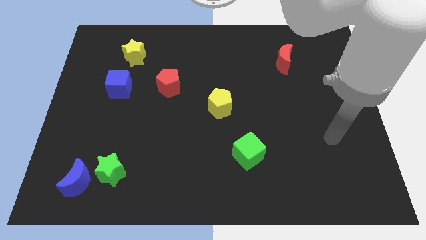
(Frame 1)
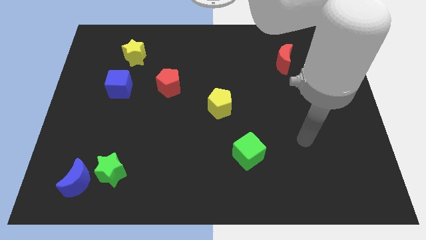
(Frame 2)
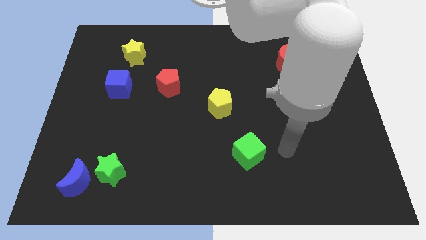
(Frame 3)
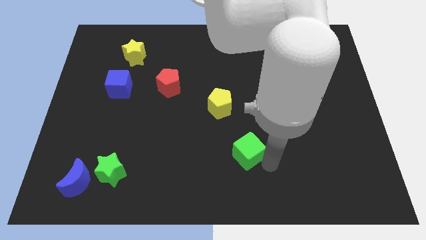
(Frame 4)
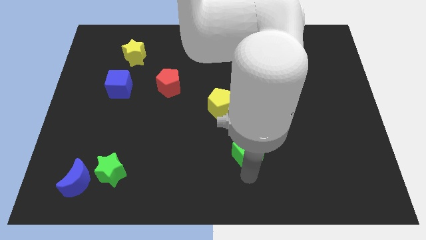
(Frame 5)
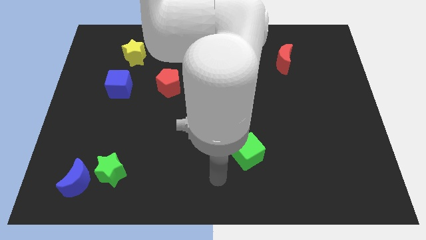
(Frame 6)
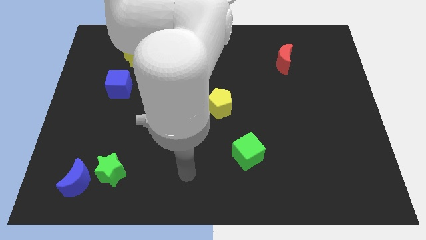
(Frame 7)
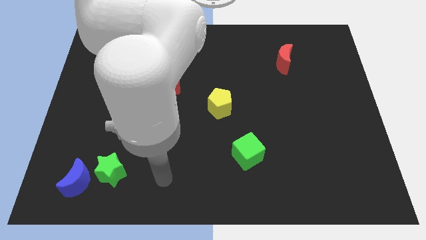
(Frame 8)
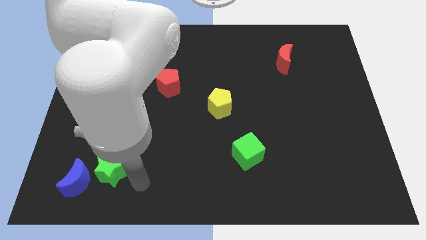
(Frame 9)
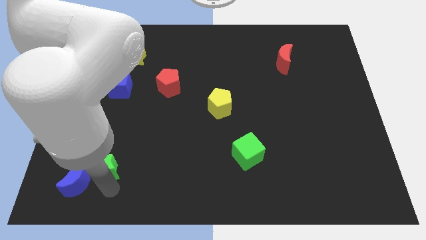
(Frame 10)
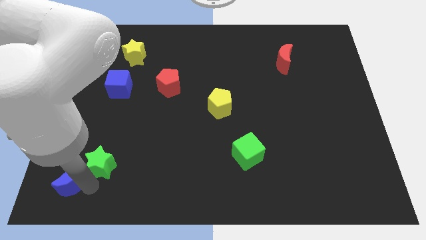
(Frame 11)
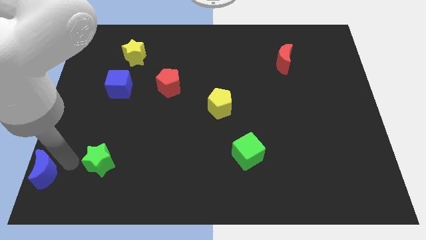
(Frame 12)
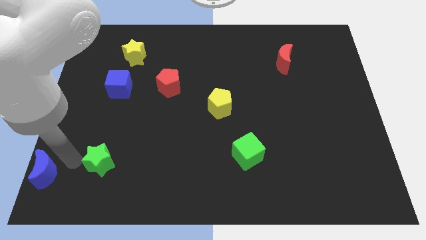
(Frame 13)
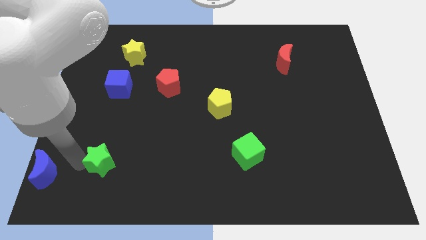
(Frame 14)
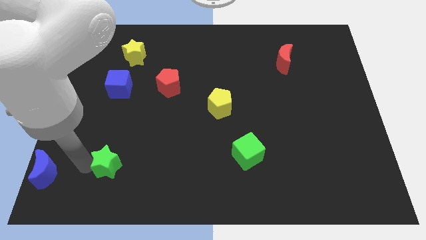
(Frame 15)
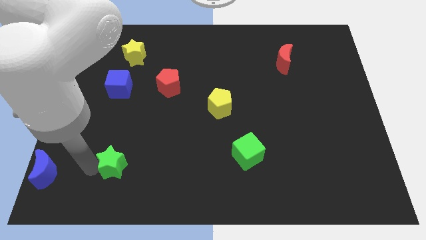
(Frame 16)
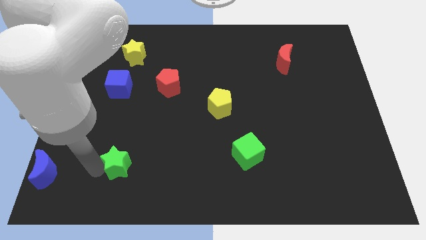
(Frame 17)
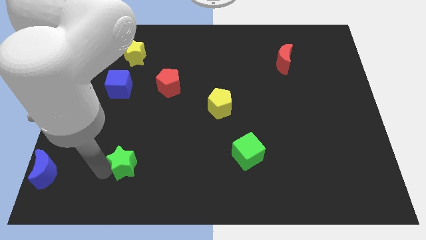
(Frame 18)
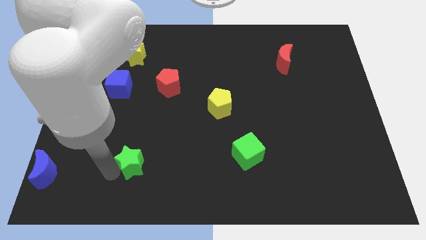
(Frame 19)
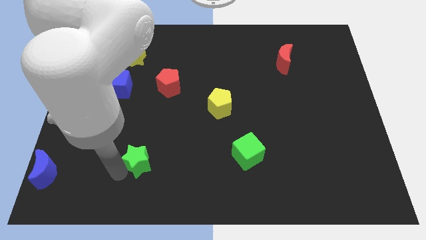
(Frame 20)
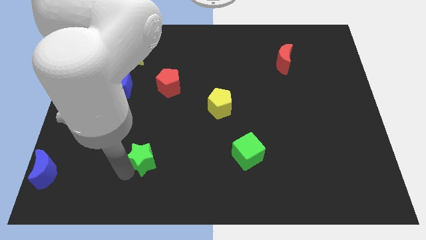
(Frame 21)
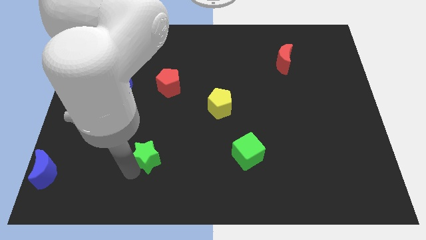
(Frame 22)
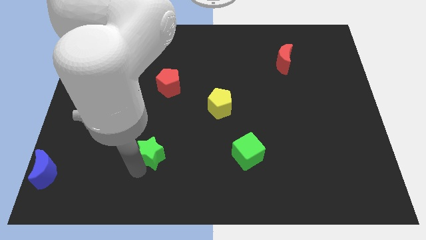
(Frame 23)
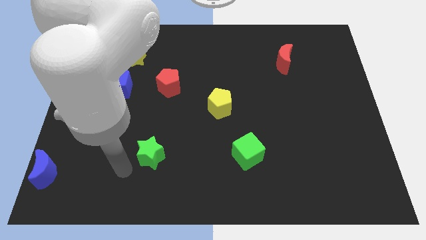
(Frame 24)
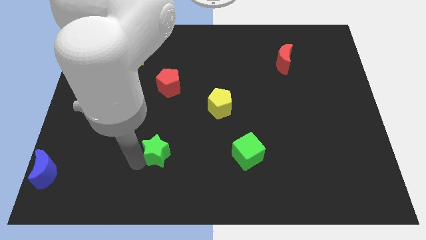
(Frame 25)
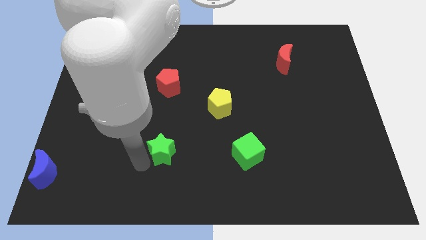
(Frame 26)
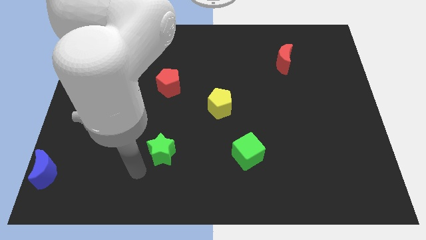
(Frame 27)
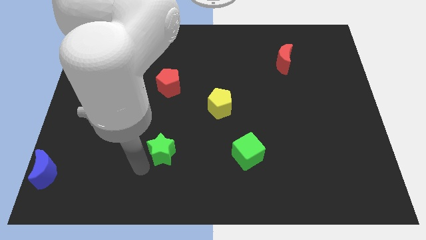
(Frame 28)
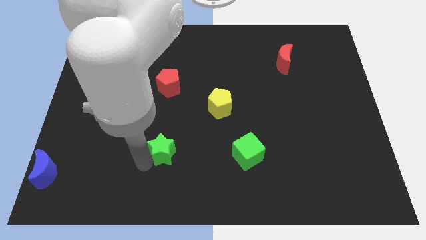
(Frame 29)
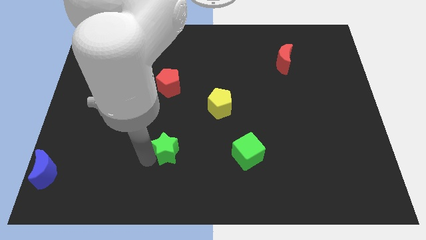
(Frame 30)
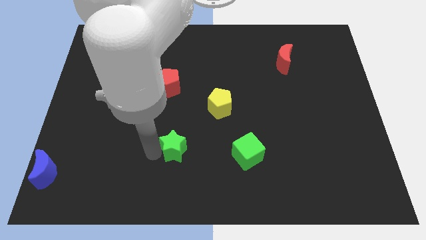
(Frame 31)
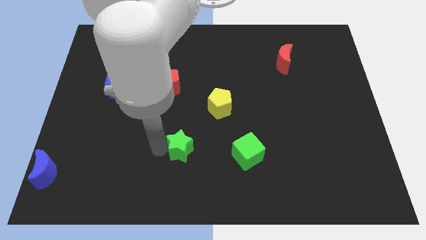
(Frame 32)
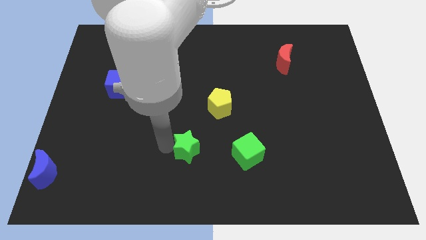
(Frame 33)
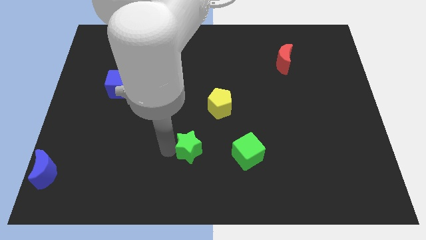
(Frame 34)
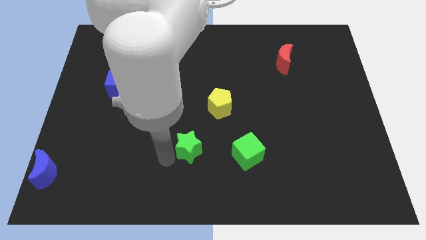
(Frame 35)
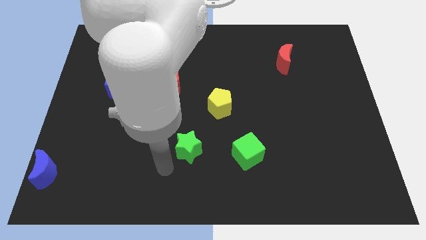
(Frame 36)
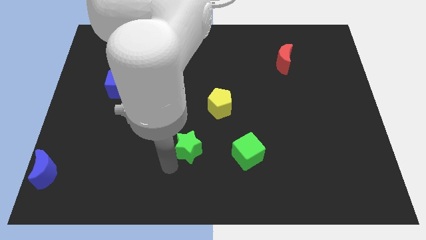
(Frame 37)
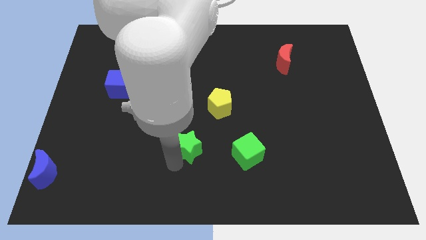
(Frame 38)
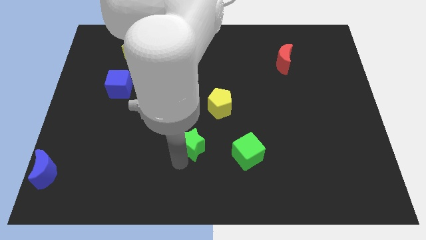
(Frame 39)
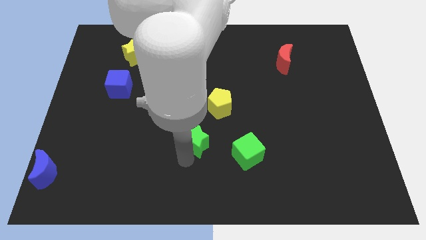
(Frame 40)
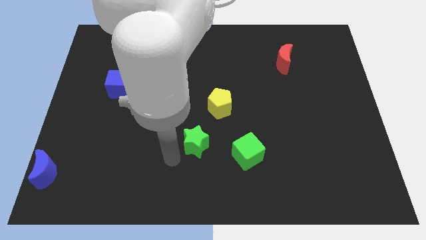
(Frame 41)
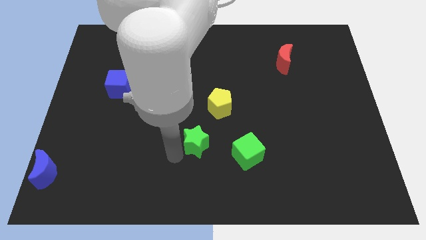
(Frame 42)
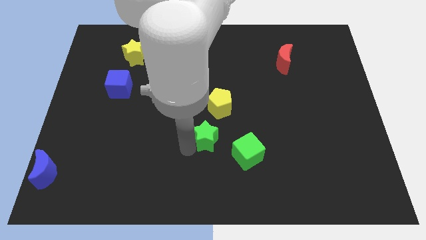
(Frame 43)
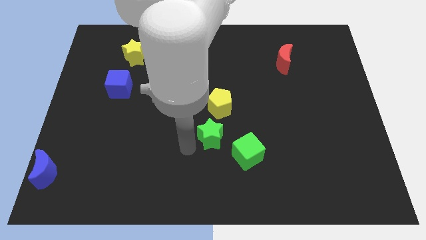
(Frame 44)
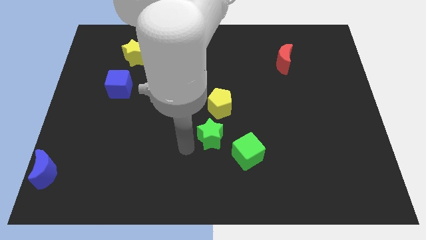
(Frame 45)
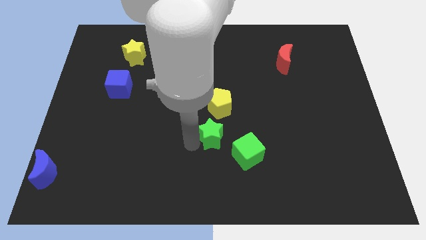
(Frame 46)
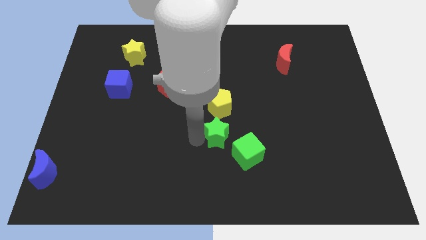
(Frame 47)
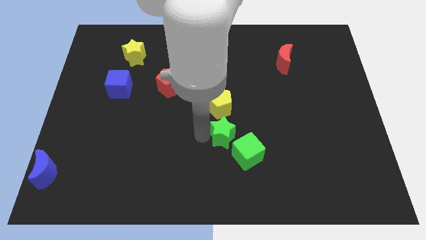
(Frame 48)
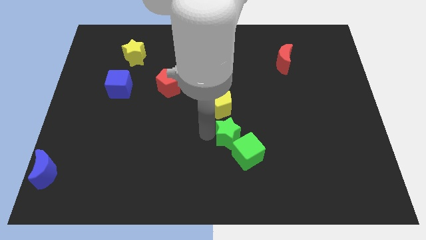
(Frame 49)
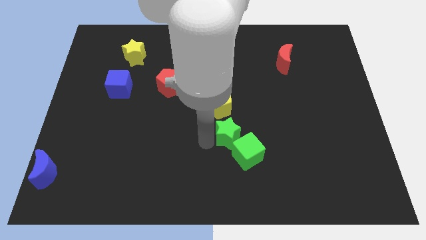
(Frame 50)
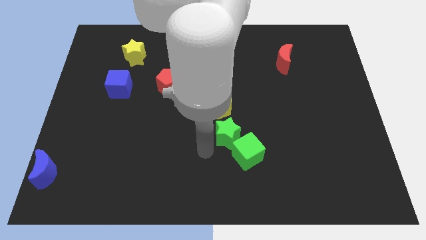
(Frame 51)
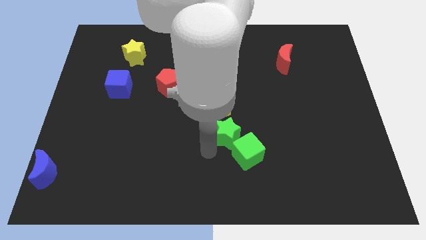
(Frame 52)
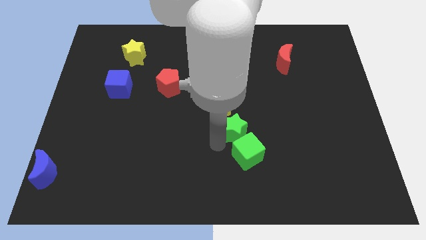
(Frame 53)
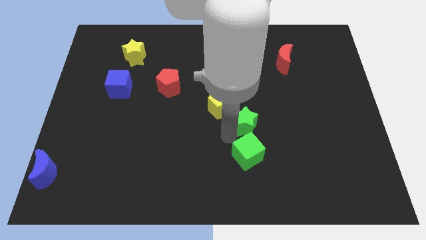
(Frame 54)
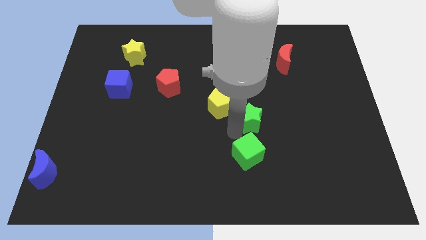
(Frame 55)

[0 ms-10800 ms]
slide the green star to the right of the yellow pentagon
